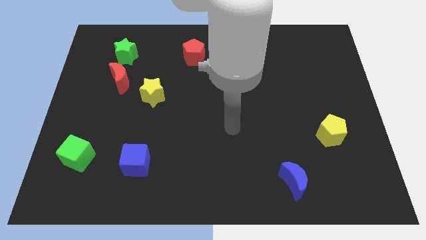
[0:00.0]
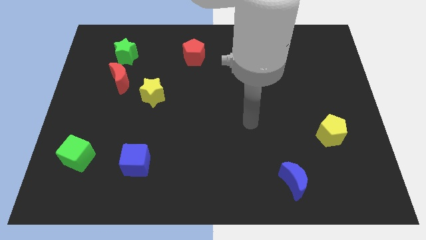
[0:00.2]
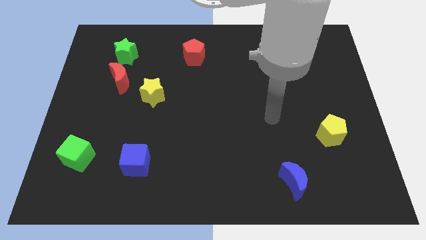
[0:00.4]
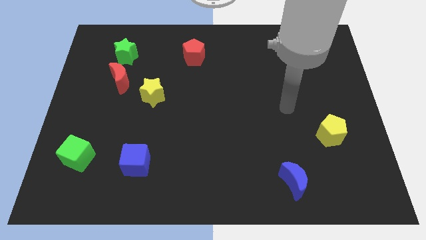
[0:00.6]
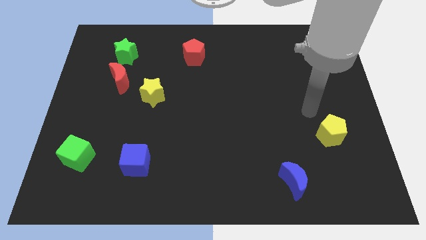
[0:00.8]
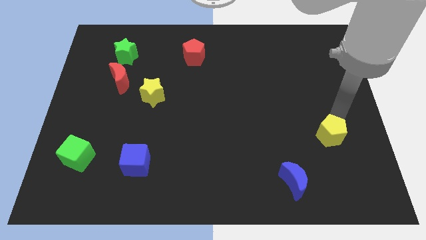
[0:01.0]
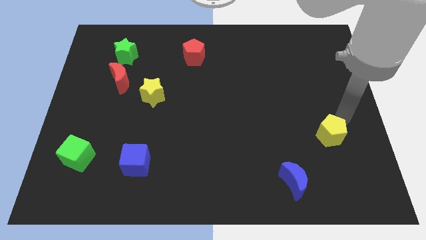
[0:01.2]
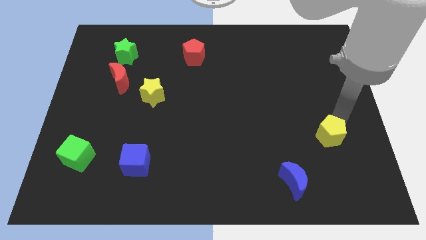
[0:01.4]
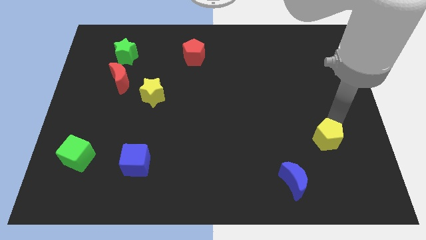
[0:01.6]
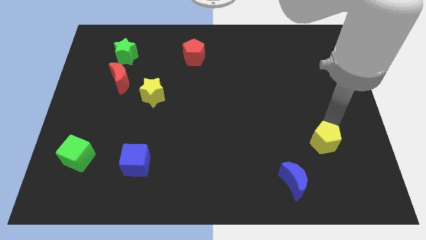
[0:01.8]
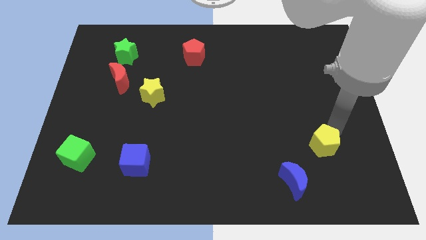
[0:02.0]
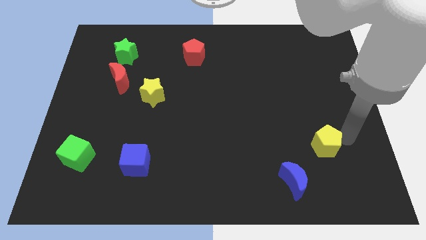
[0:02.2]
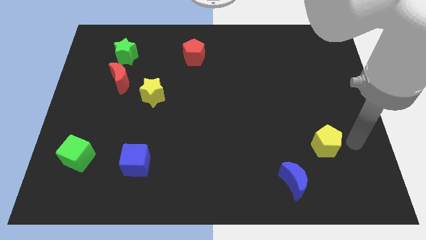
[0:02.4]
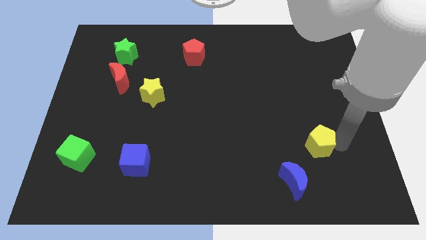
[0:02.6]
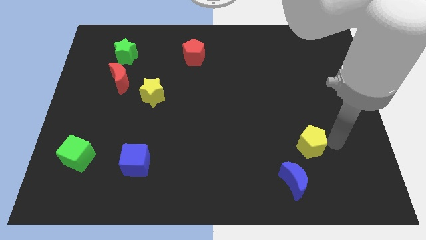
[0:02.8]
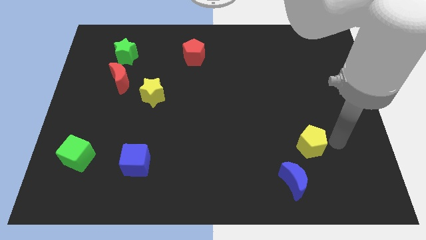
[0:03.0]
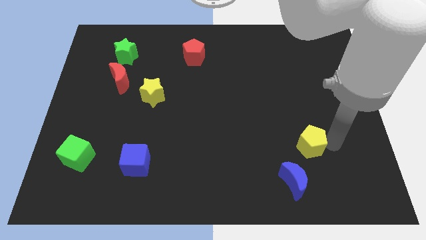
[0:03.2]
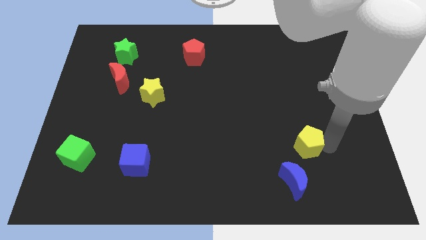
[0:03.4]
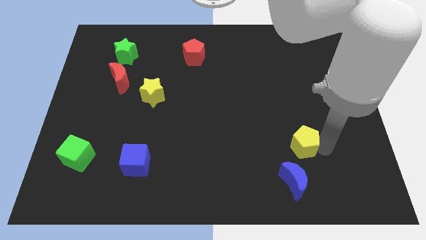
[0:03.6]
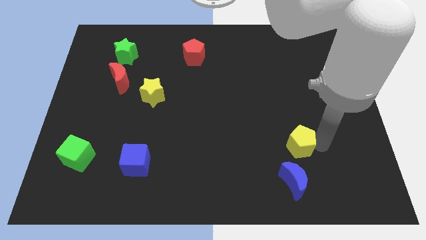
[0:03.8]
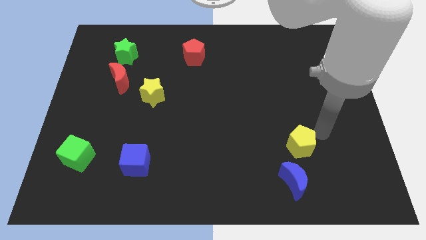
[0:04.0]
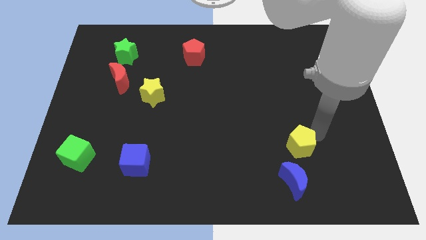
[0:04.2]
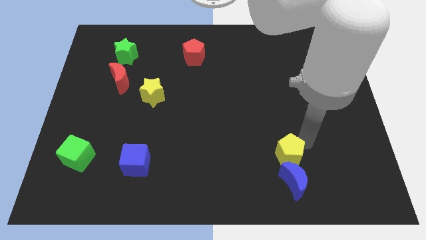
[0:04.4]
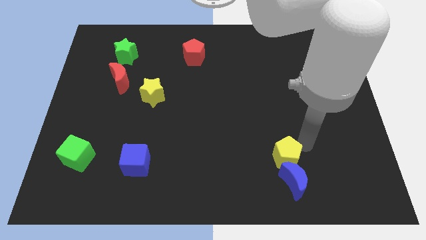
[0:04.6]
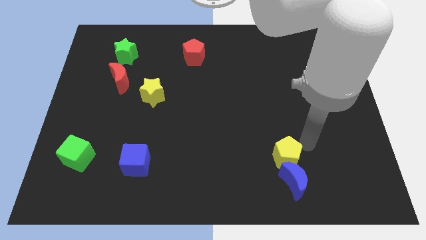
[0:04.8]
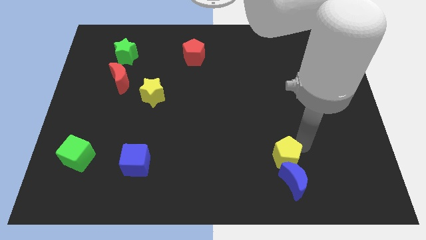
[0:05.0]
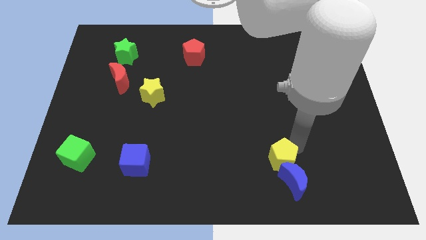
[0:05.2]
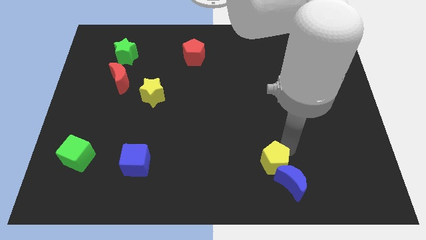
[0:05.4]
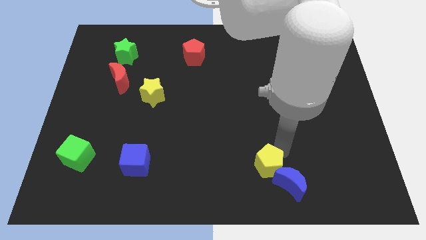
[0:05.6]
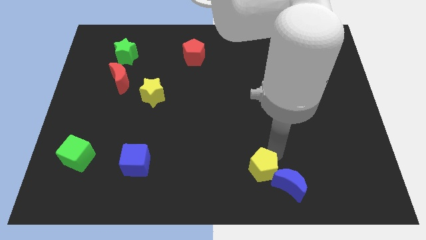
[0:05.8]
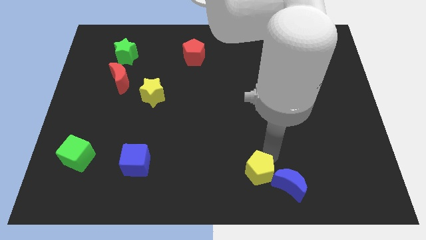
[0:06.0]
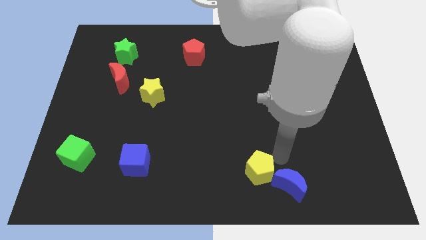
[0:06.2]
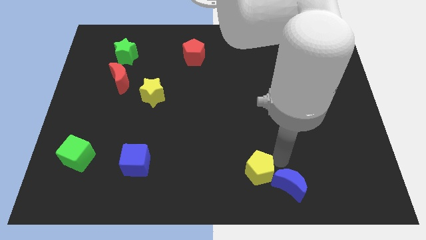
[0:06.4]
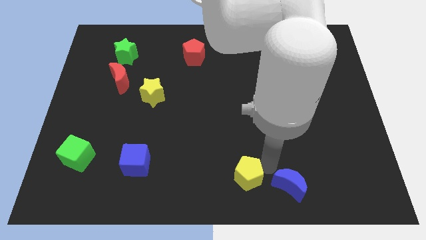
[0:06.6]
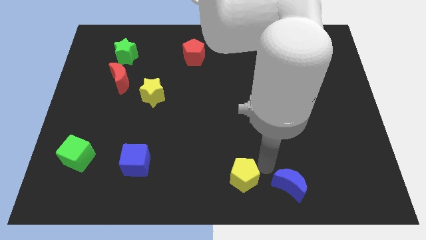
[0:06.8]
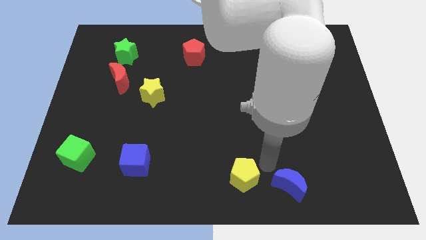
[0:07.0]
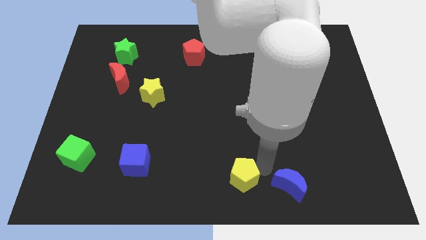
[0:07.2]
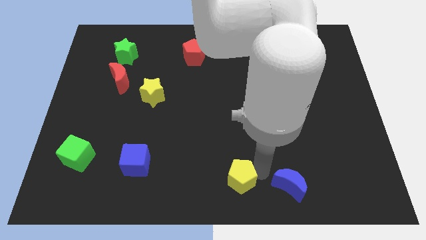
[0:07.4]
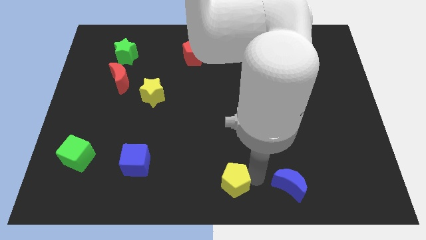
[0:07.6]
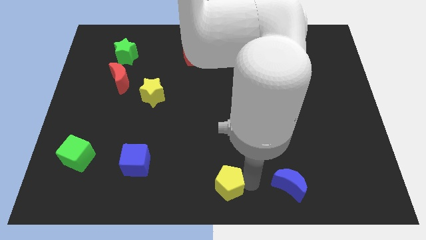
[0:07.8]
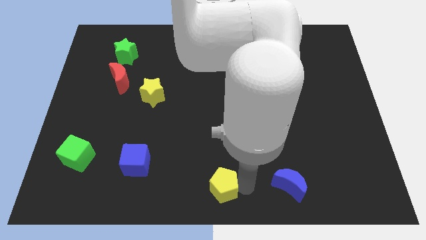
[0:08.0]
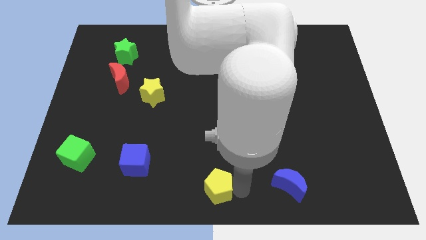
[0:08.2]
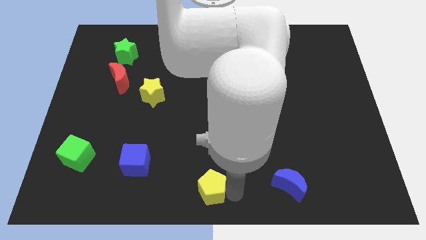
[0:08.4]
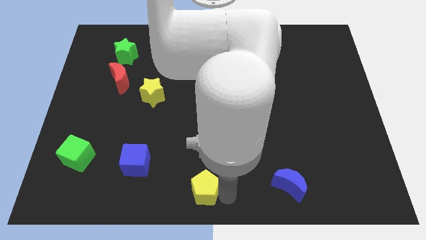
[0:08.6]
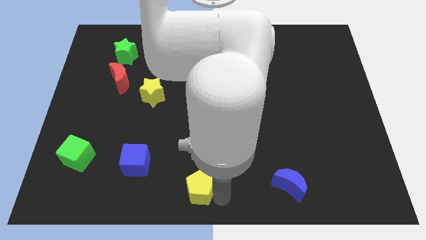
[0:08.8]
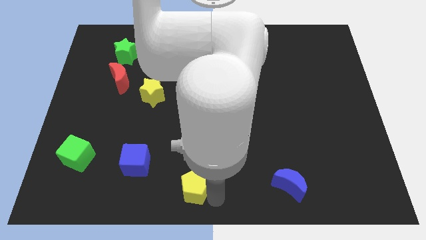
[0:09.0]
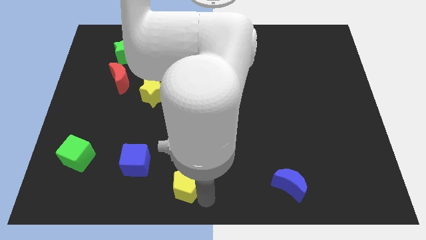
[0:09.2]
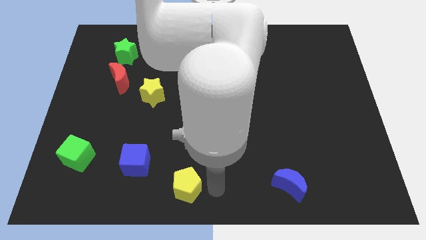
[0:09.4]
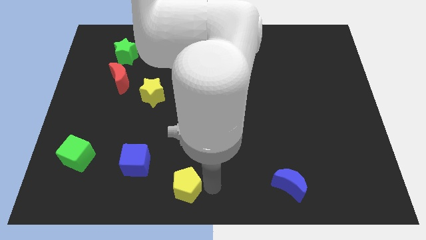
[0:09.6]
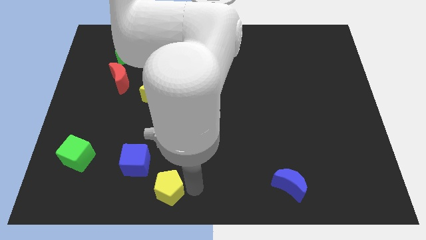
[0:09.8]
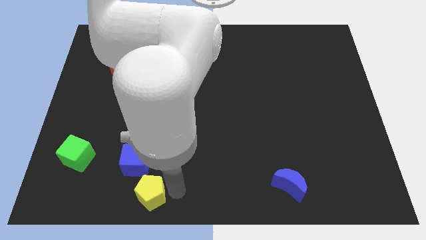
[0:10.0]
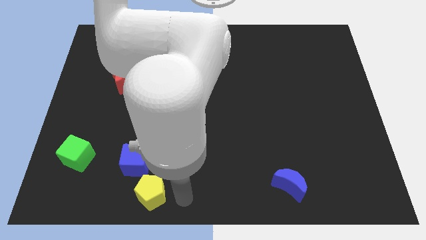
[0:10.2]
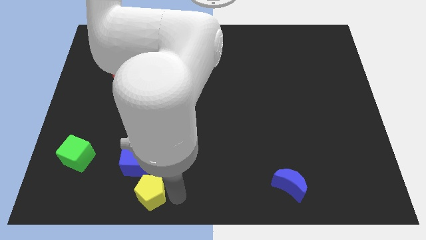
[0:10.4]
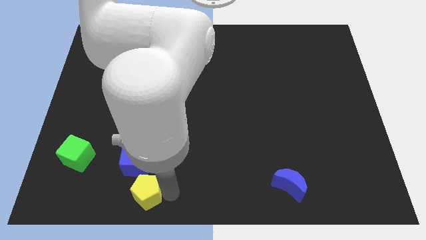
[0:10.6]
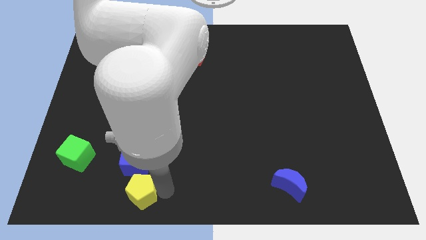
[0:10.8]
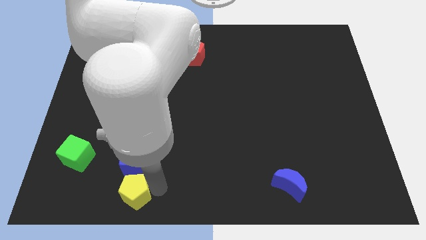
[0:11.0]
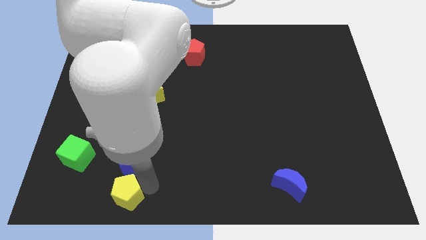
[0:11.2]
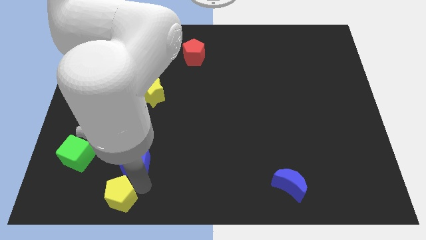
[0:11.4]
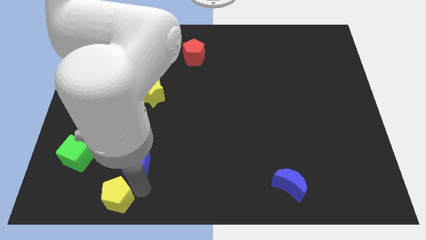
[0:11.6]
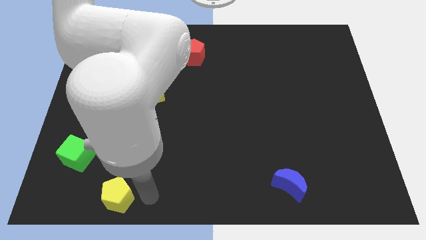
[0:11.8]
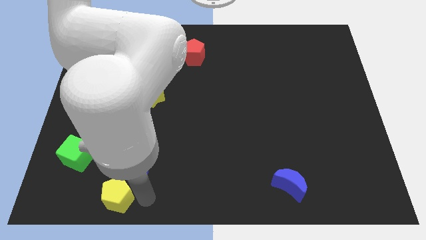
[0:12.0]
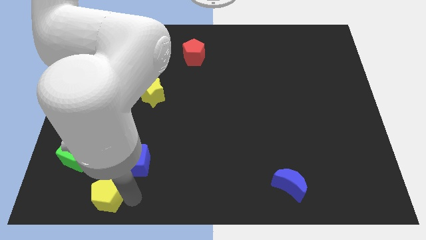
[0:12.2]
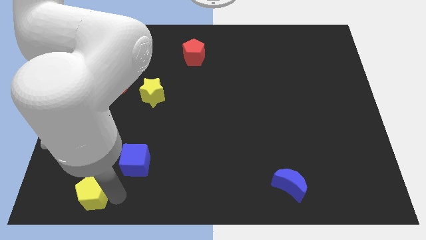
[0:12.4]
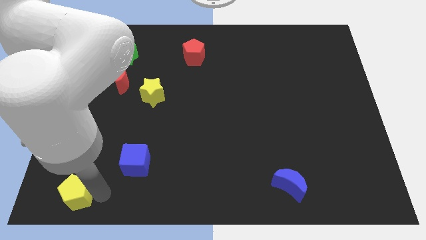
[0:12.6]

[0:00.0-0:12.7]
slide the yellow pentagon to the bottom left

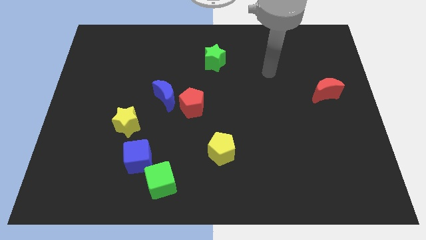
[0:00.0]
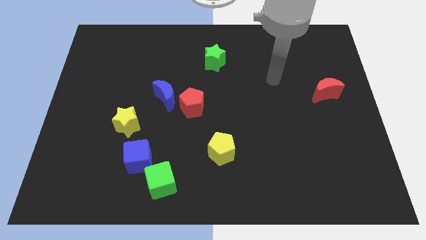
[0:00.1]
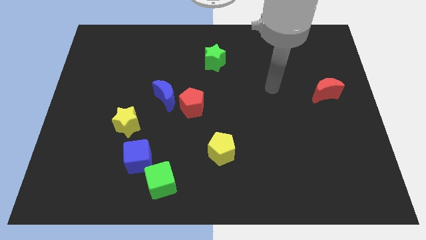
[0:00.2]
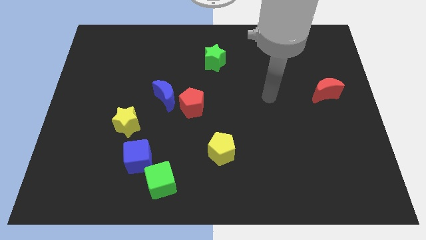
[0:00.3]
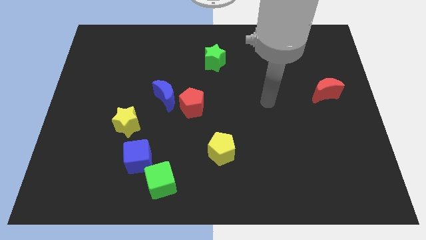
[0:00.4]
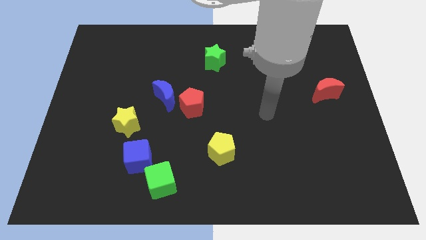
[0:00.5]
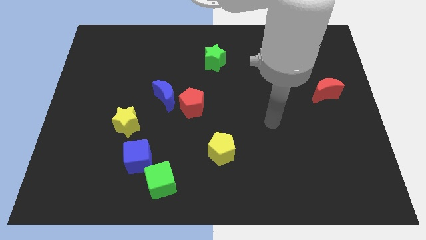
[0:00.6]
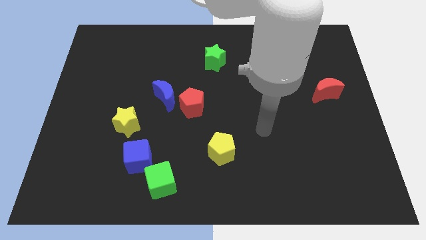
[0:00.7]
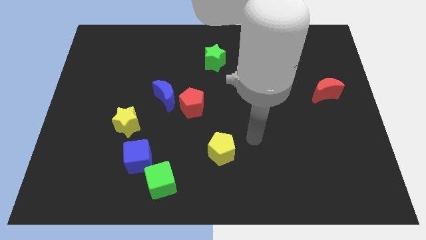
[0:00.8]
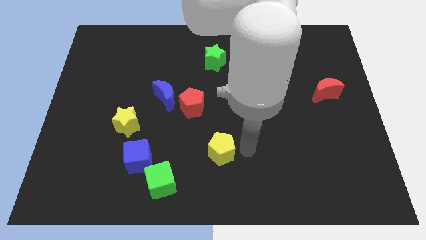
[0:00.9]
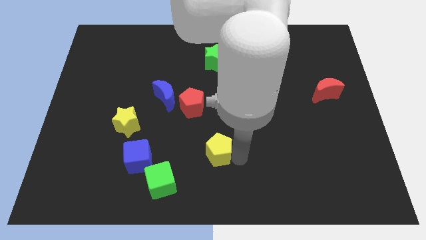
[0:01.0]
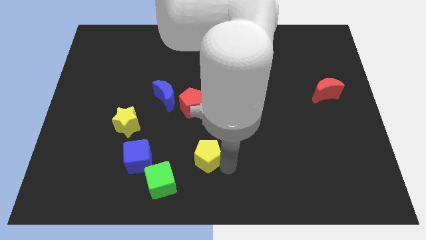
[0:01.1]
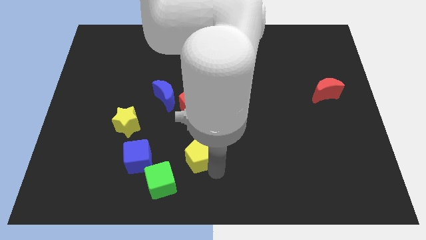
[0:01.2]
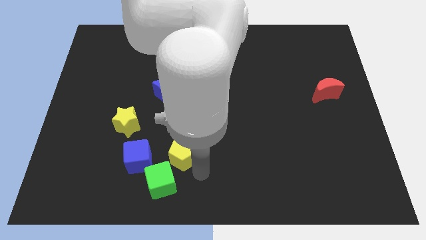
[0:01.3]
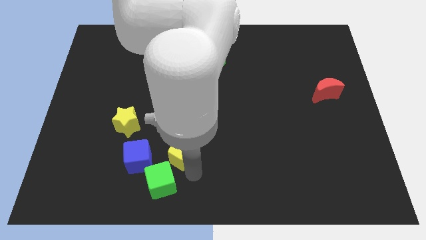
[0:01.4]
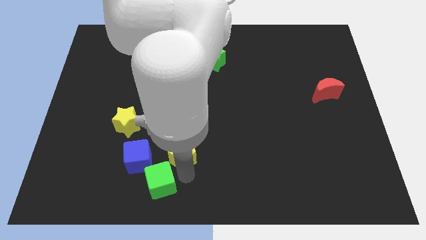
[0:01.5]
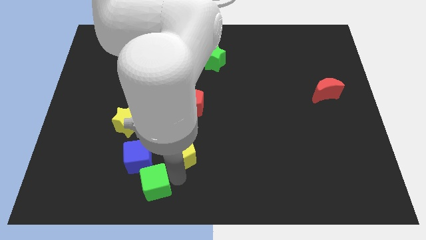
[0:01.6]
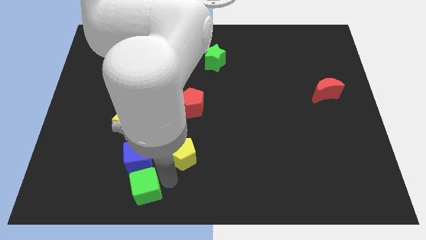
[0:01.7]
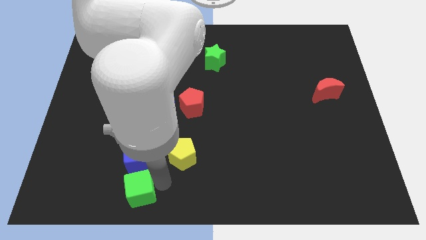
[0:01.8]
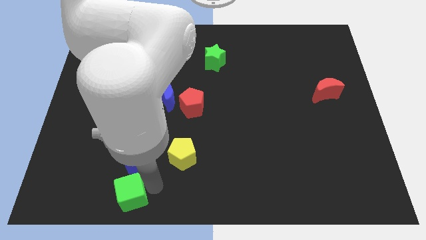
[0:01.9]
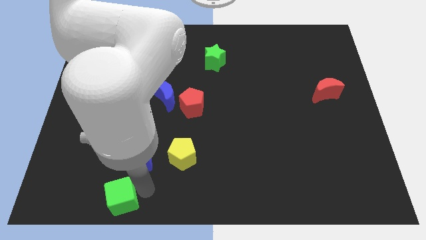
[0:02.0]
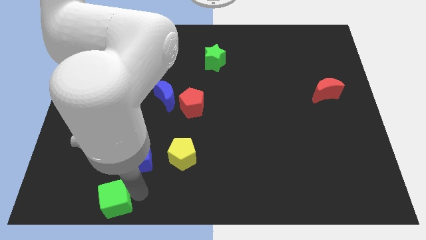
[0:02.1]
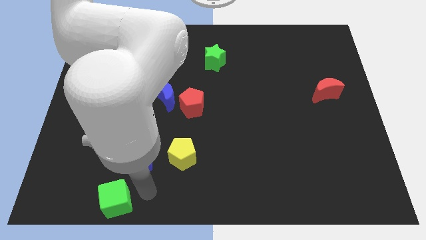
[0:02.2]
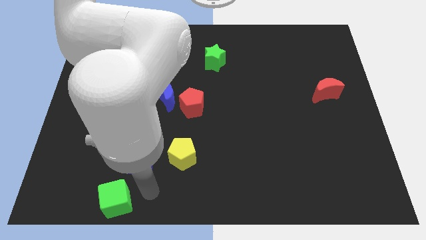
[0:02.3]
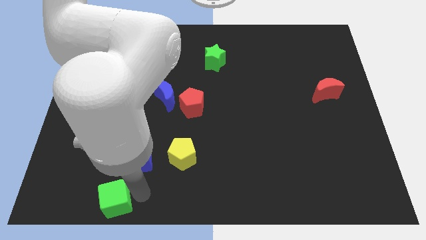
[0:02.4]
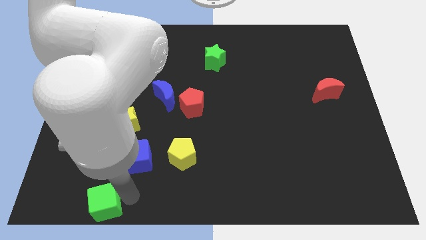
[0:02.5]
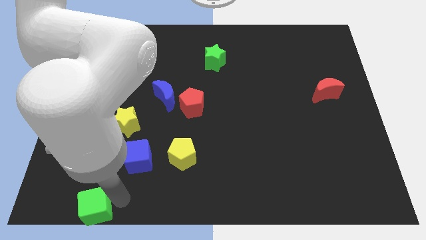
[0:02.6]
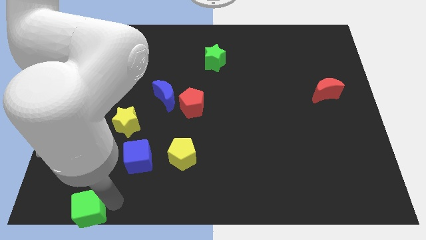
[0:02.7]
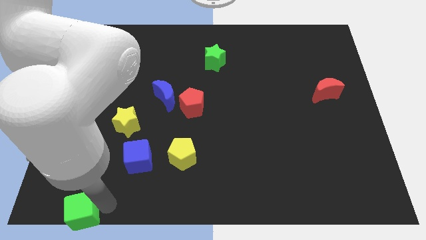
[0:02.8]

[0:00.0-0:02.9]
put the green cube to the bottom left of the board
